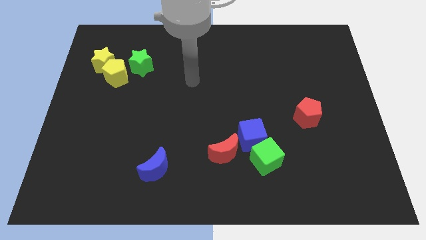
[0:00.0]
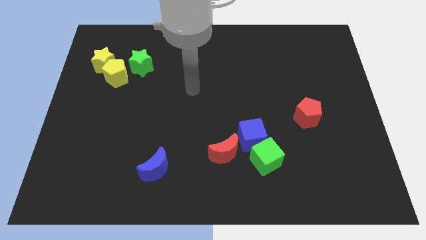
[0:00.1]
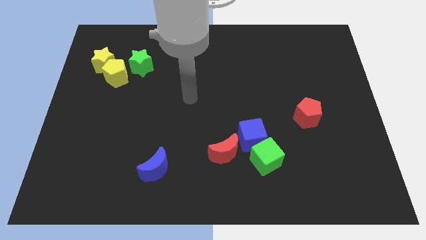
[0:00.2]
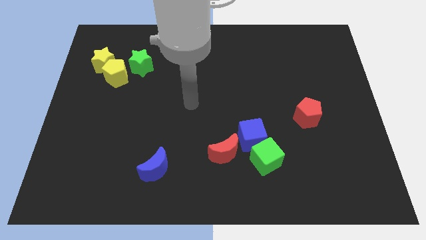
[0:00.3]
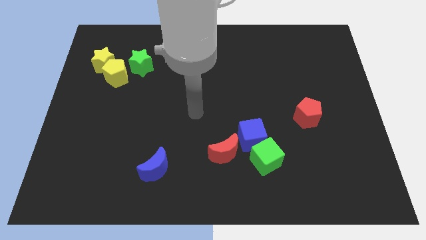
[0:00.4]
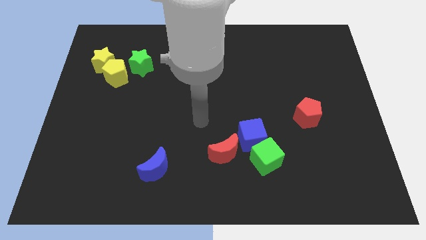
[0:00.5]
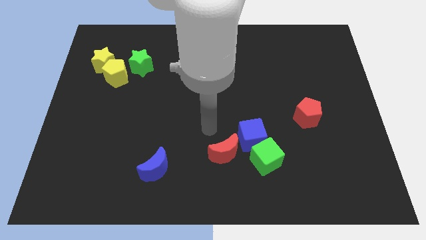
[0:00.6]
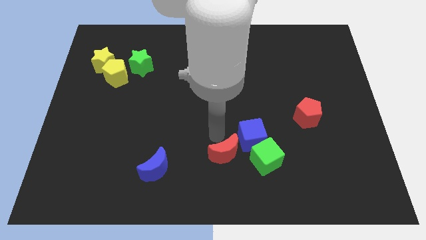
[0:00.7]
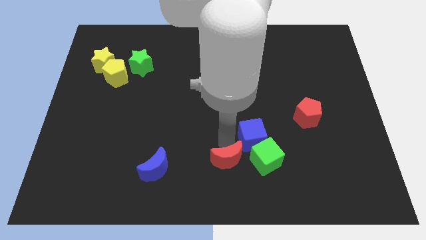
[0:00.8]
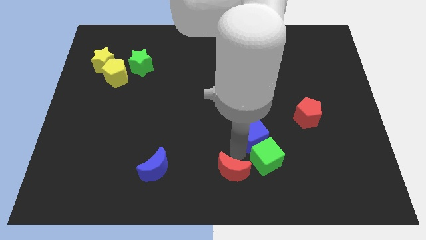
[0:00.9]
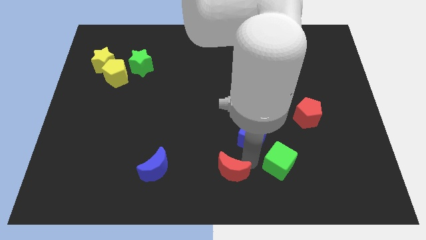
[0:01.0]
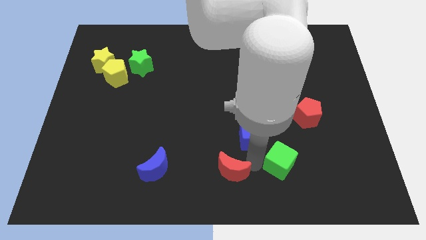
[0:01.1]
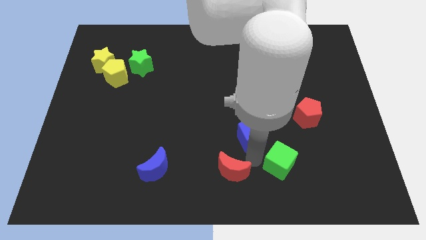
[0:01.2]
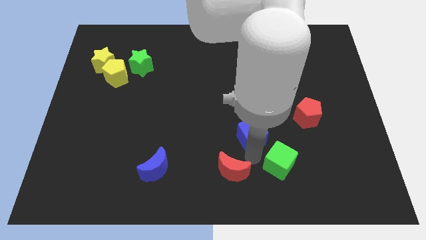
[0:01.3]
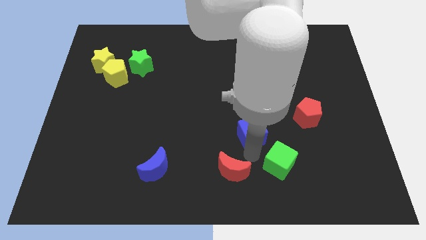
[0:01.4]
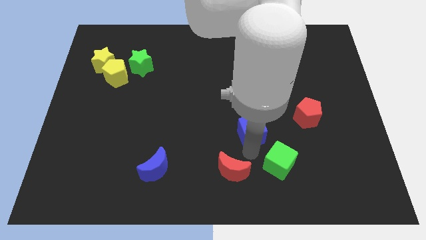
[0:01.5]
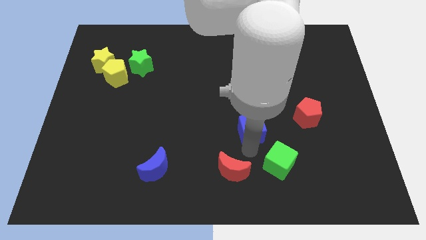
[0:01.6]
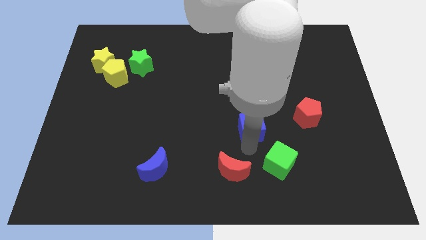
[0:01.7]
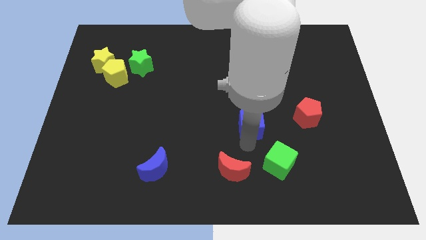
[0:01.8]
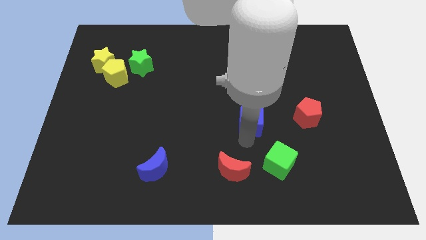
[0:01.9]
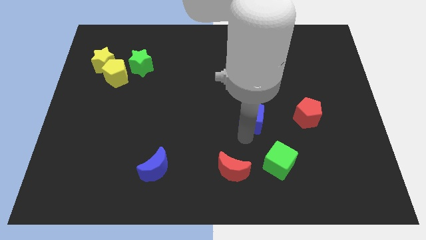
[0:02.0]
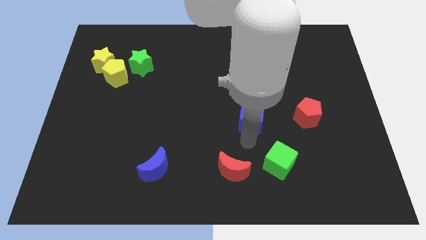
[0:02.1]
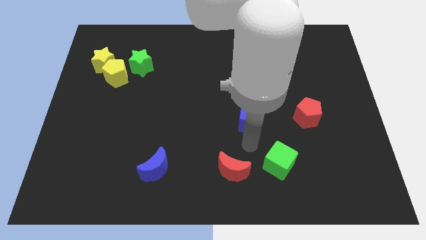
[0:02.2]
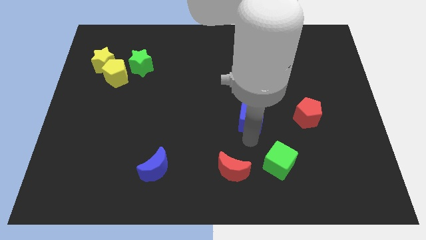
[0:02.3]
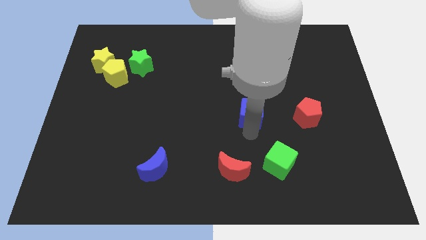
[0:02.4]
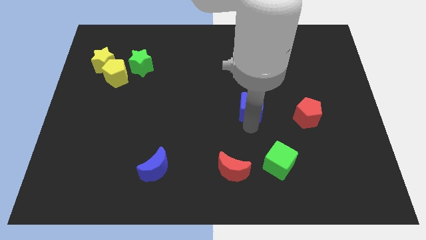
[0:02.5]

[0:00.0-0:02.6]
move the blue cube up a little bit

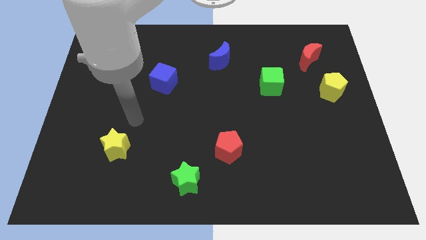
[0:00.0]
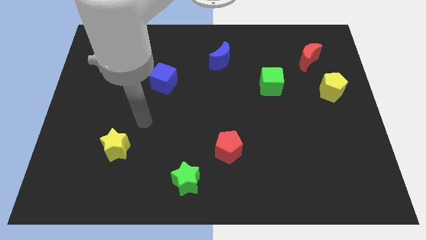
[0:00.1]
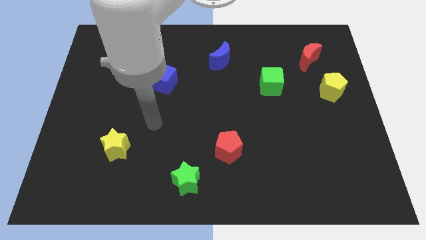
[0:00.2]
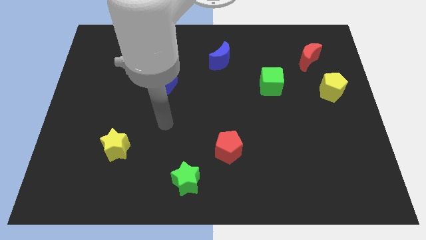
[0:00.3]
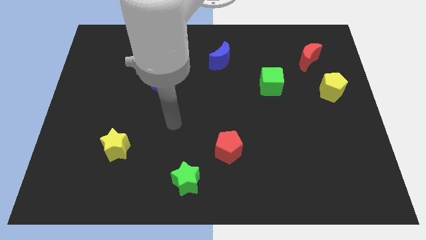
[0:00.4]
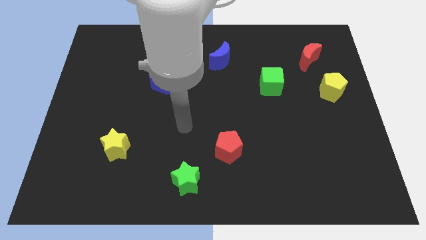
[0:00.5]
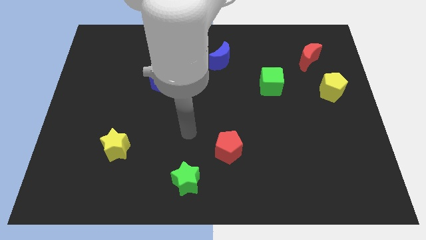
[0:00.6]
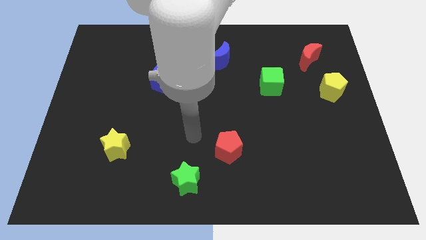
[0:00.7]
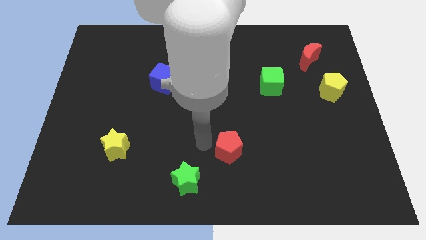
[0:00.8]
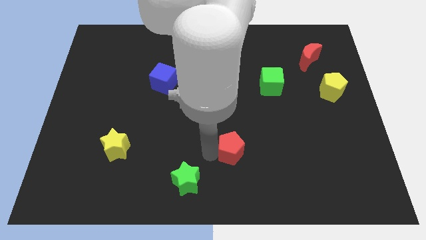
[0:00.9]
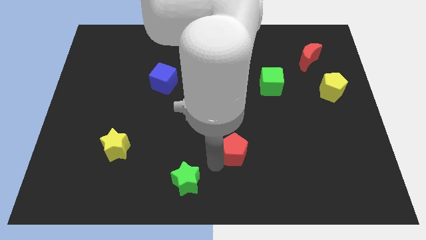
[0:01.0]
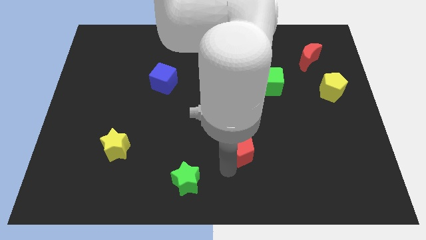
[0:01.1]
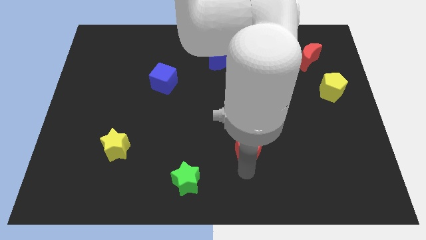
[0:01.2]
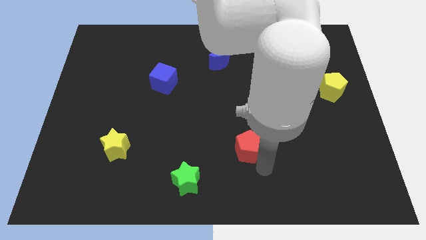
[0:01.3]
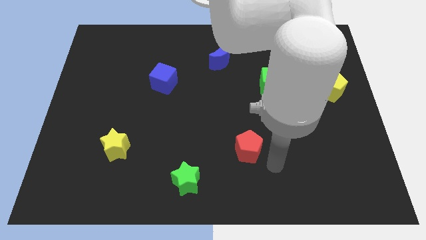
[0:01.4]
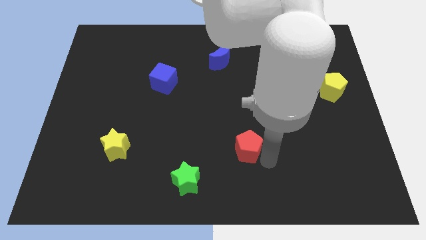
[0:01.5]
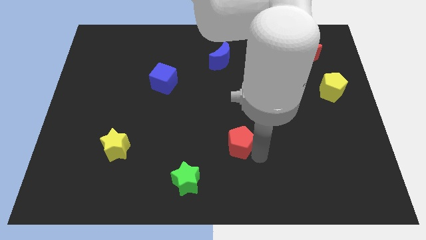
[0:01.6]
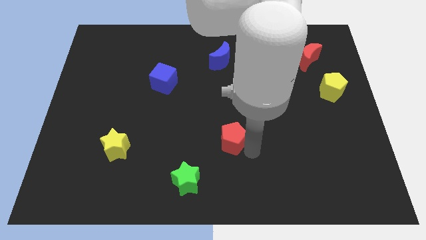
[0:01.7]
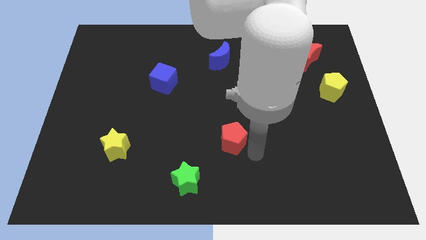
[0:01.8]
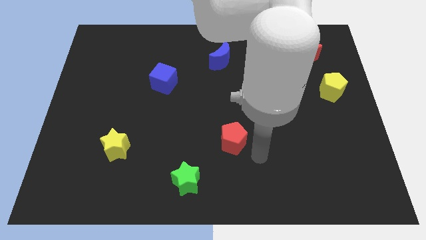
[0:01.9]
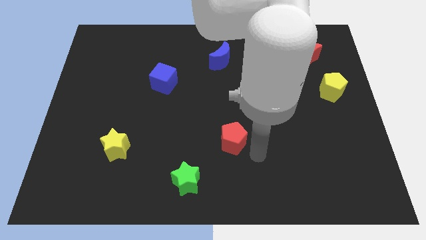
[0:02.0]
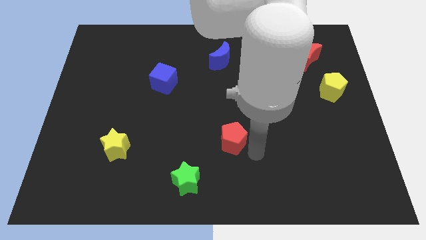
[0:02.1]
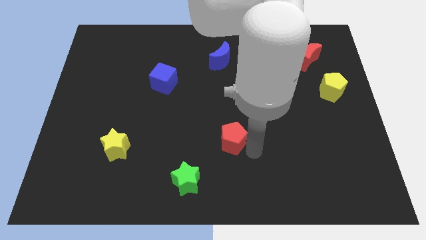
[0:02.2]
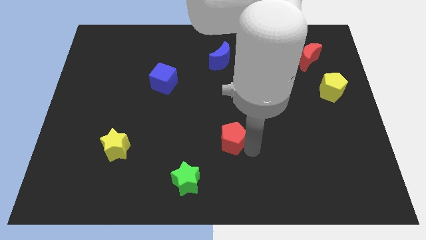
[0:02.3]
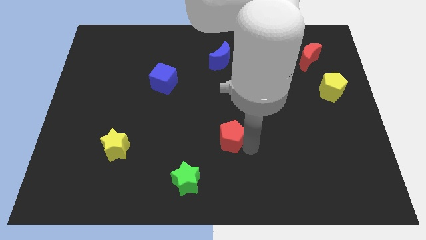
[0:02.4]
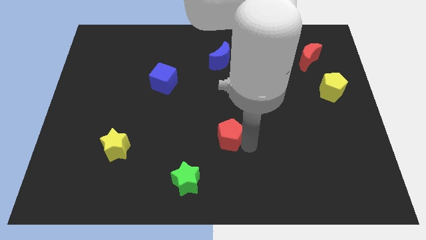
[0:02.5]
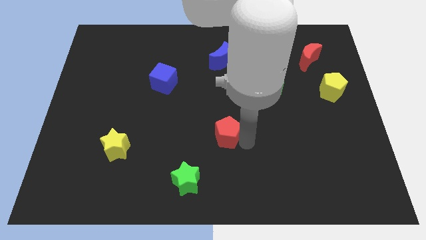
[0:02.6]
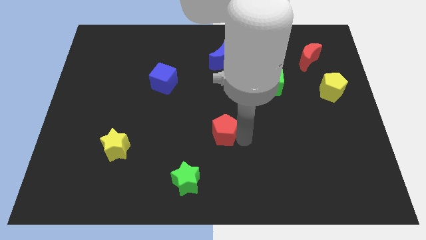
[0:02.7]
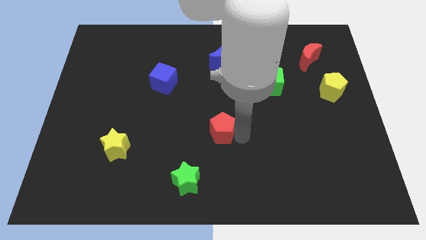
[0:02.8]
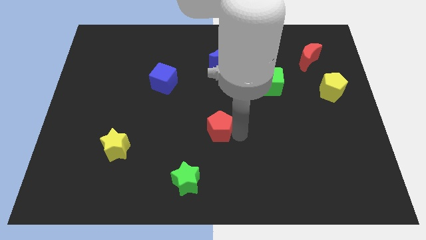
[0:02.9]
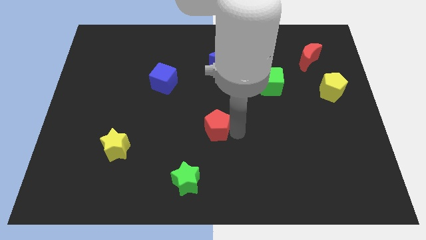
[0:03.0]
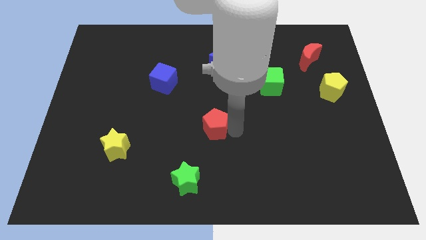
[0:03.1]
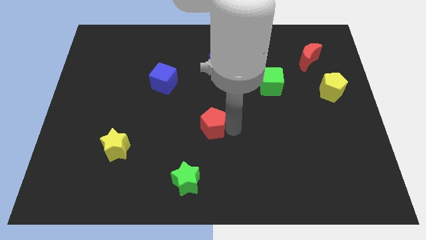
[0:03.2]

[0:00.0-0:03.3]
slightly move the red pentagon up and left diagonally

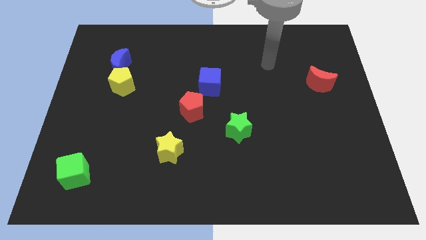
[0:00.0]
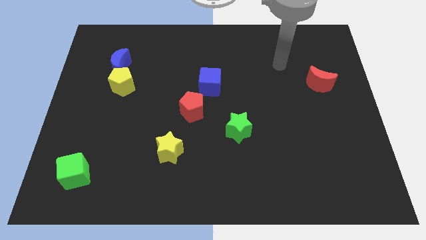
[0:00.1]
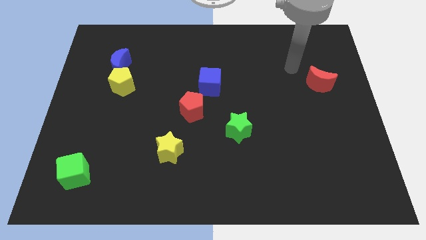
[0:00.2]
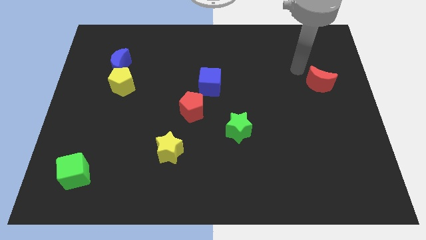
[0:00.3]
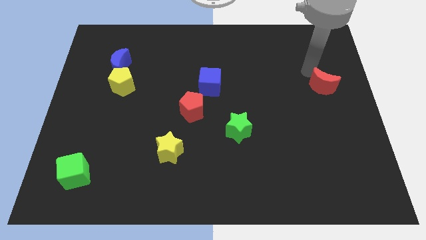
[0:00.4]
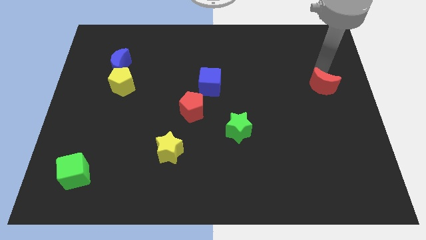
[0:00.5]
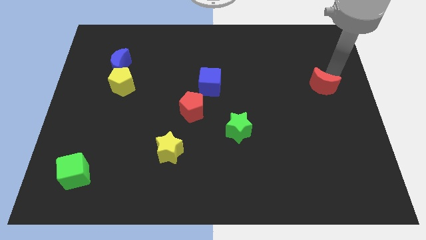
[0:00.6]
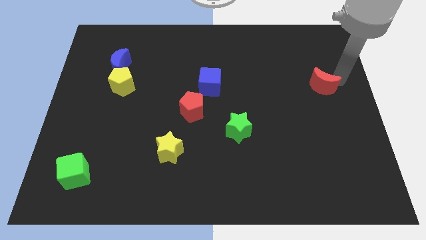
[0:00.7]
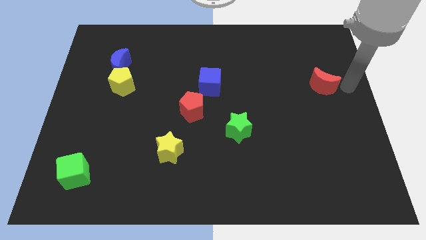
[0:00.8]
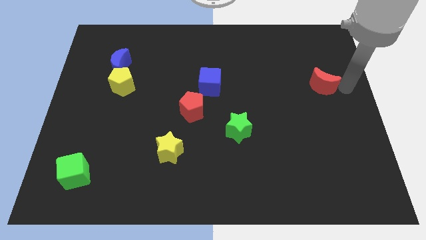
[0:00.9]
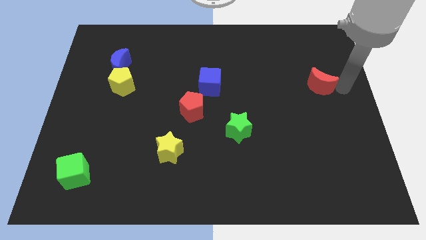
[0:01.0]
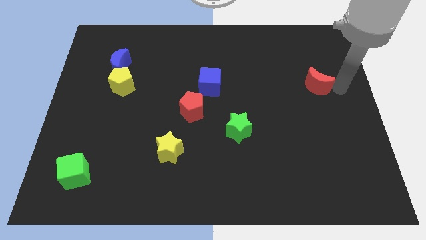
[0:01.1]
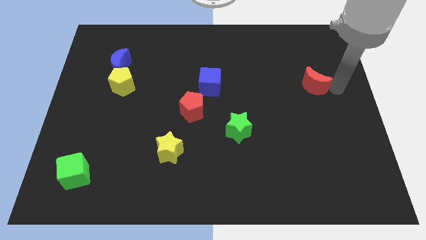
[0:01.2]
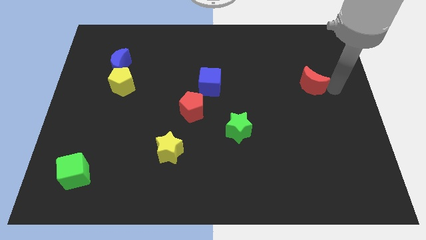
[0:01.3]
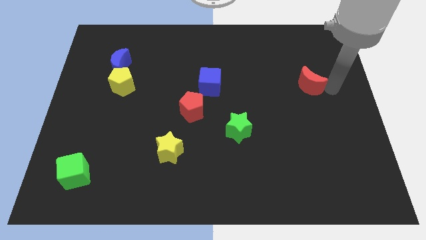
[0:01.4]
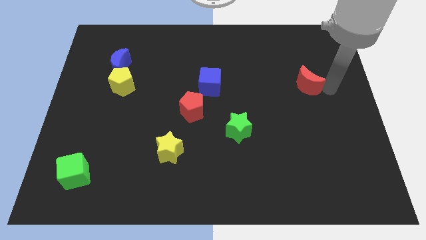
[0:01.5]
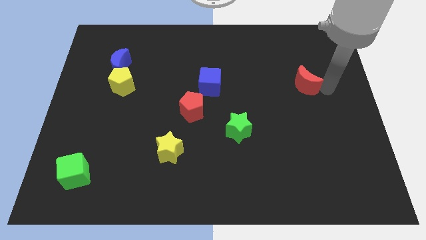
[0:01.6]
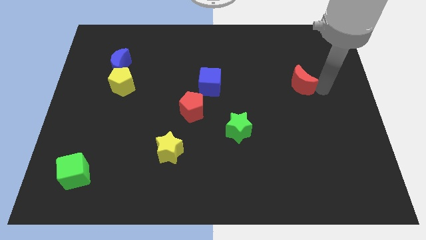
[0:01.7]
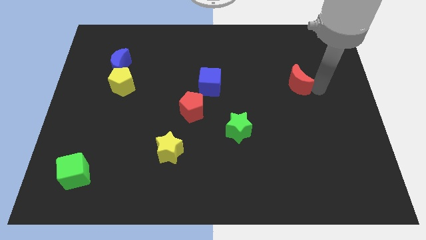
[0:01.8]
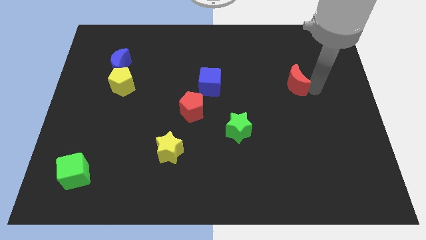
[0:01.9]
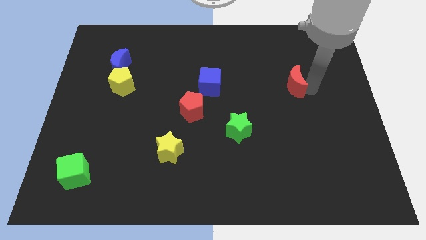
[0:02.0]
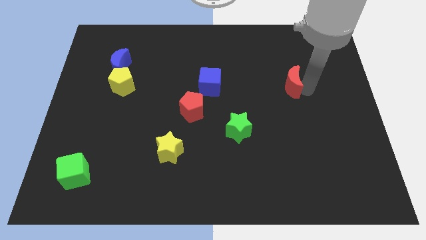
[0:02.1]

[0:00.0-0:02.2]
move the red moon left a bit

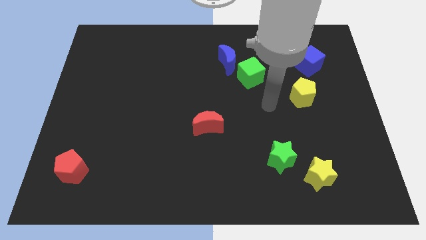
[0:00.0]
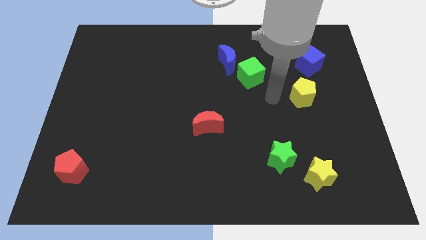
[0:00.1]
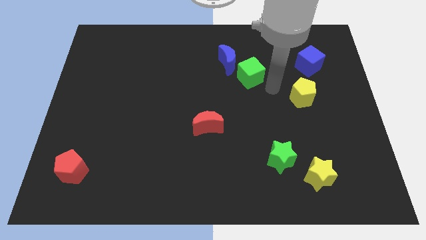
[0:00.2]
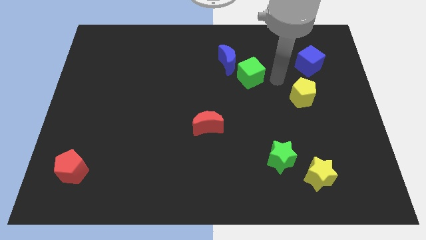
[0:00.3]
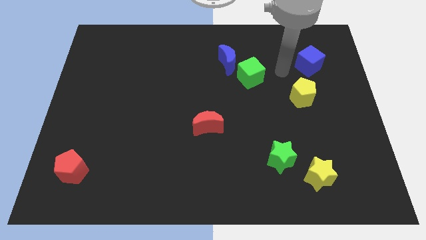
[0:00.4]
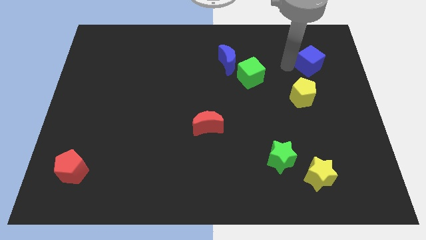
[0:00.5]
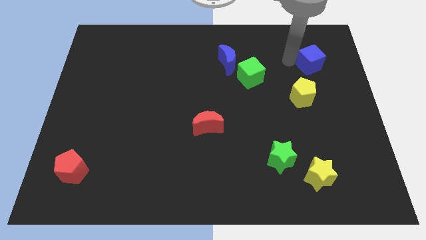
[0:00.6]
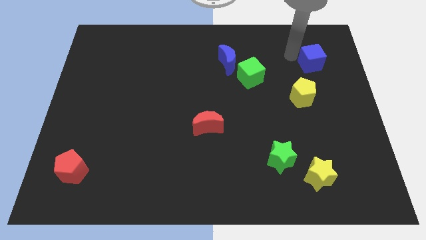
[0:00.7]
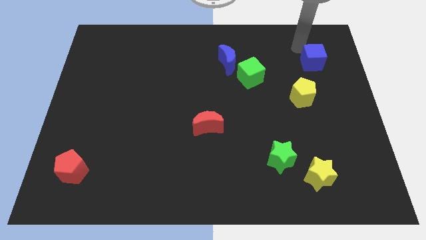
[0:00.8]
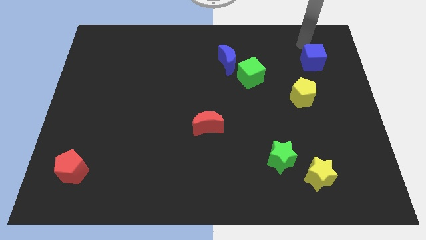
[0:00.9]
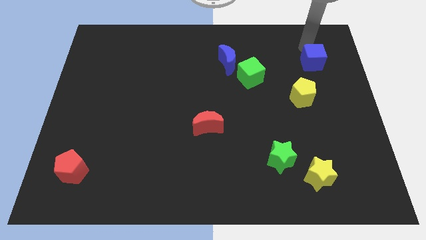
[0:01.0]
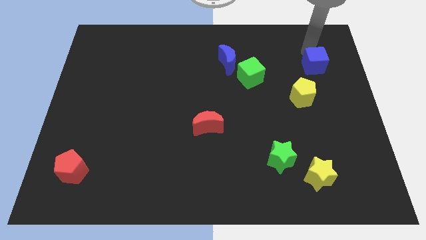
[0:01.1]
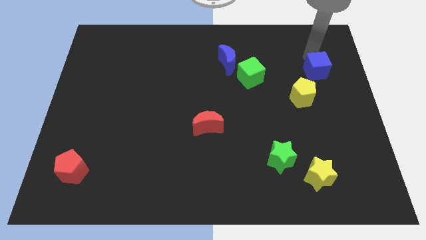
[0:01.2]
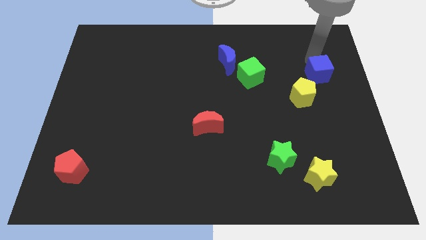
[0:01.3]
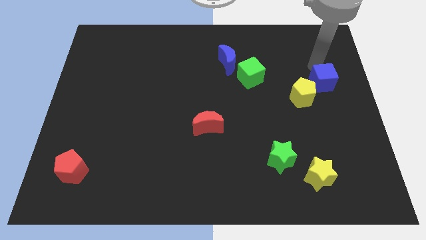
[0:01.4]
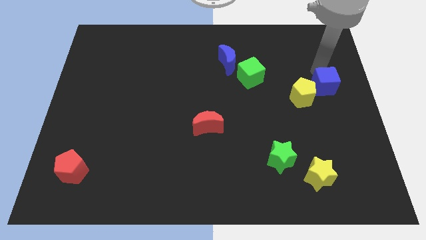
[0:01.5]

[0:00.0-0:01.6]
slide the blue cube a bit down
